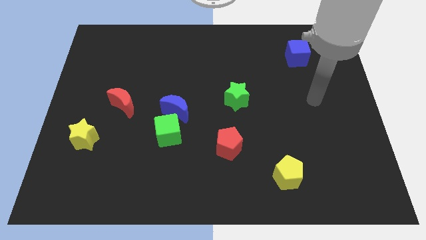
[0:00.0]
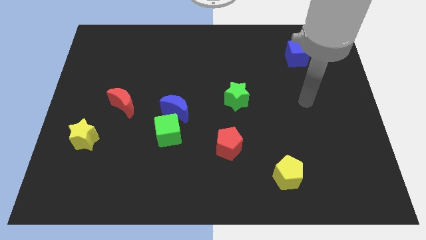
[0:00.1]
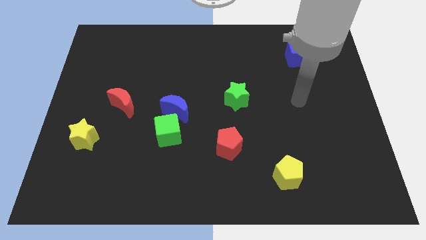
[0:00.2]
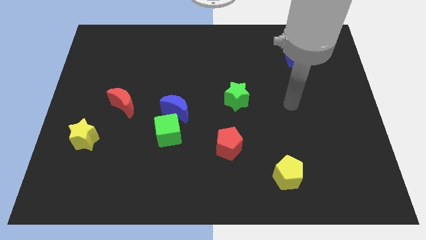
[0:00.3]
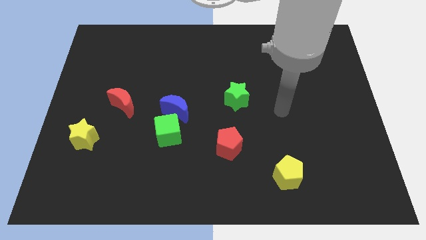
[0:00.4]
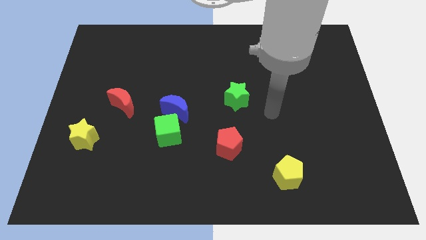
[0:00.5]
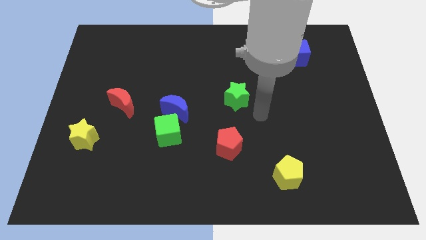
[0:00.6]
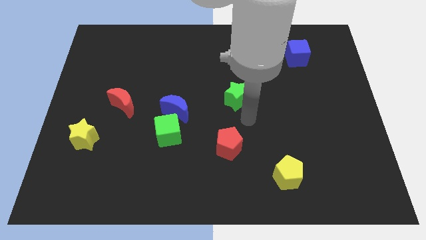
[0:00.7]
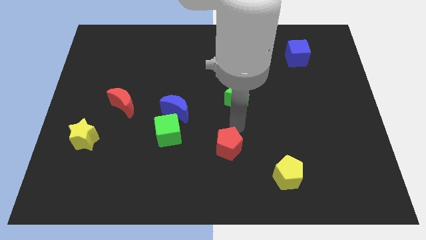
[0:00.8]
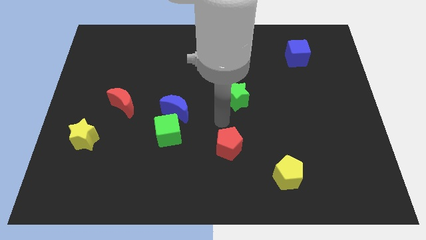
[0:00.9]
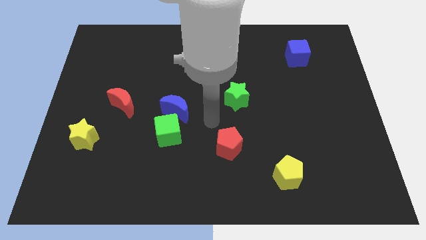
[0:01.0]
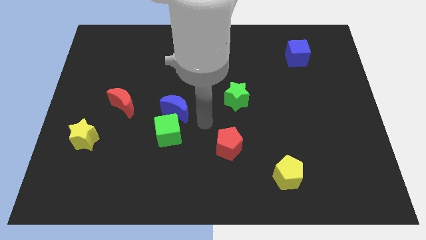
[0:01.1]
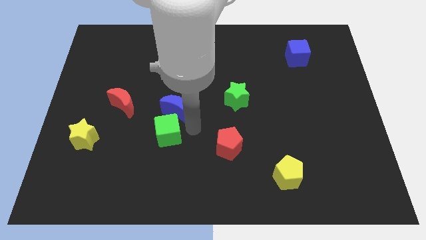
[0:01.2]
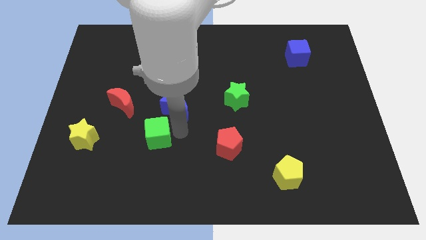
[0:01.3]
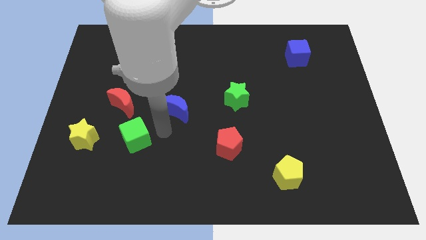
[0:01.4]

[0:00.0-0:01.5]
move the blue moon away from the green cube

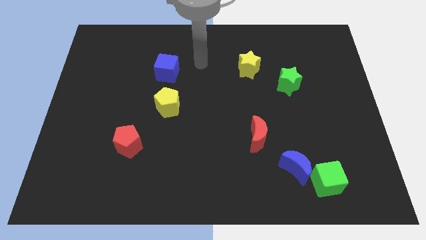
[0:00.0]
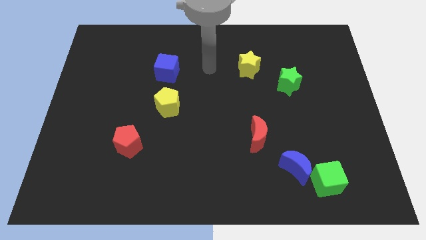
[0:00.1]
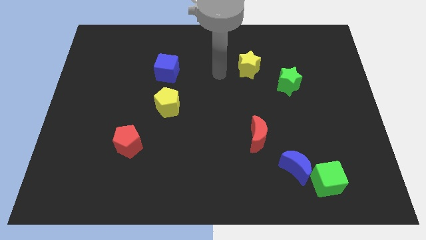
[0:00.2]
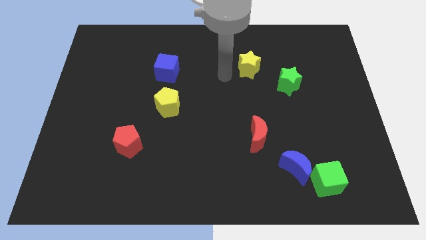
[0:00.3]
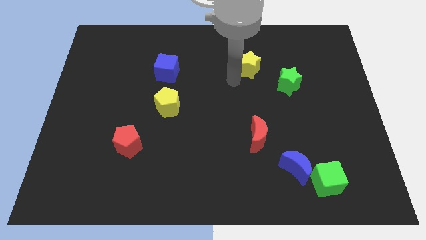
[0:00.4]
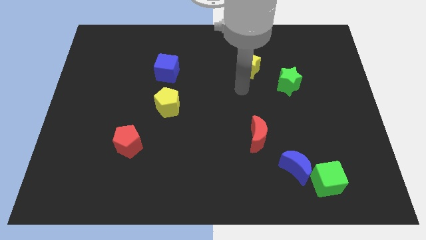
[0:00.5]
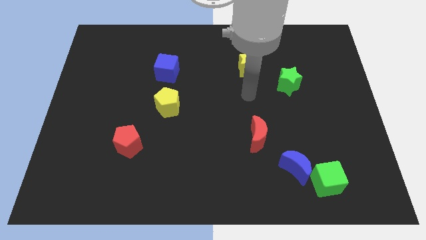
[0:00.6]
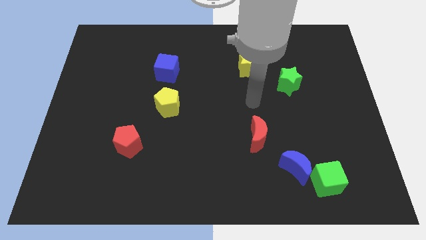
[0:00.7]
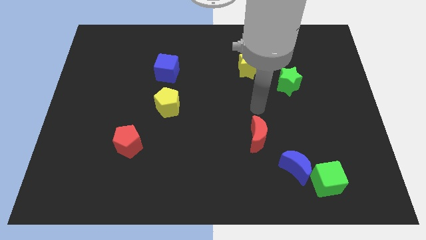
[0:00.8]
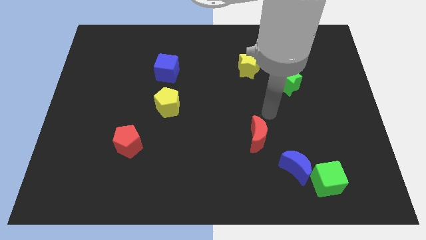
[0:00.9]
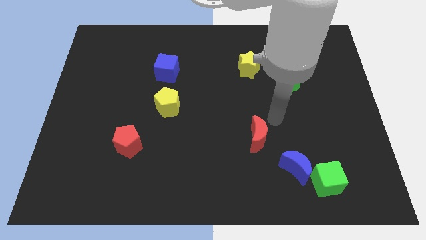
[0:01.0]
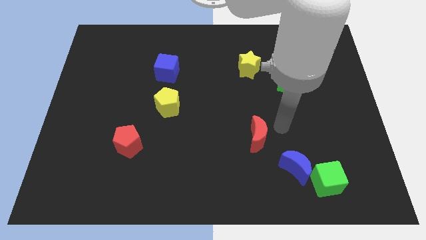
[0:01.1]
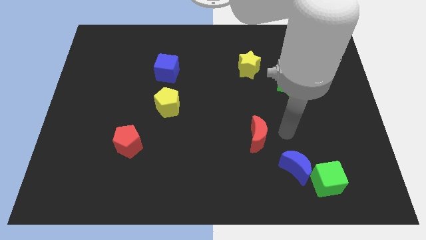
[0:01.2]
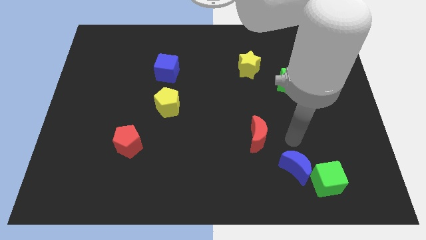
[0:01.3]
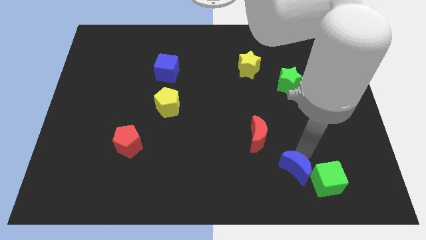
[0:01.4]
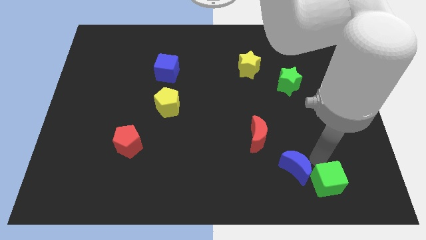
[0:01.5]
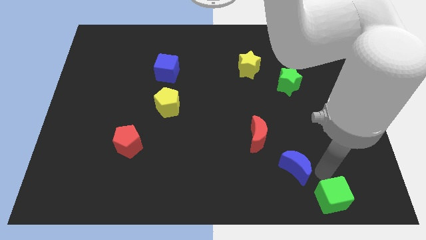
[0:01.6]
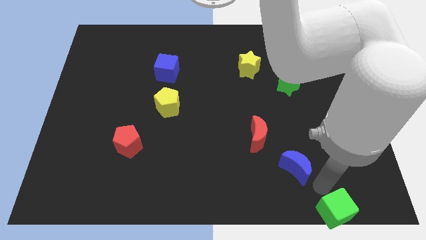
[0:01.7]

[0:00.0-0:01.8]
pull the blue moon apart from the green cube

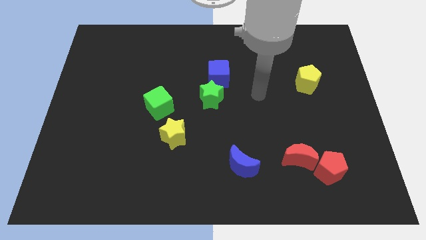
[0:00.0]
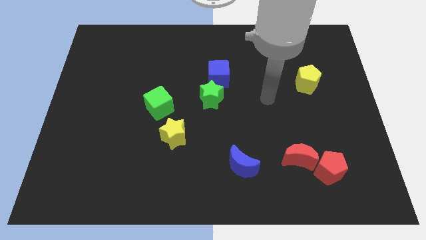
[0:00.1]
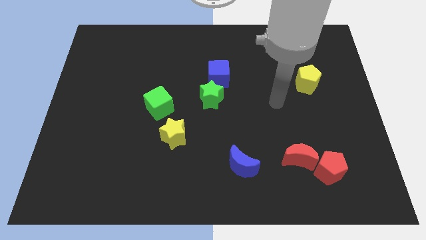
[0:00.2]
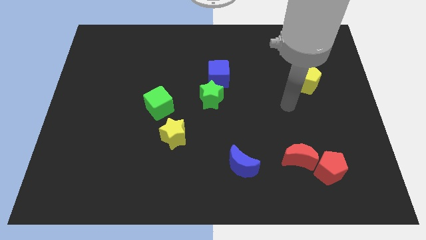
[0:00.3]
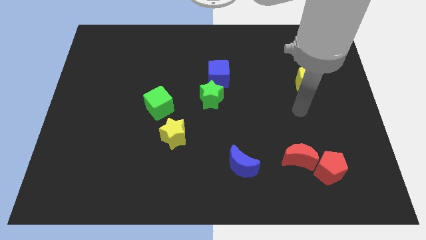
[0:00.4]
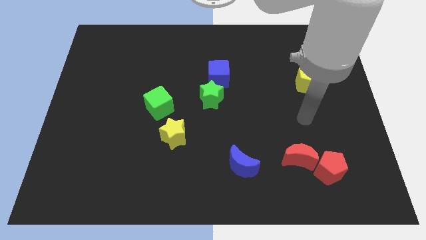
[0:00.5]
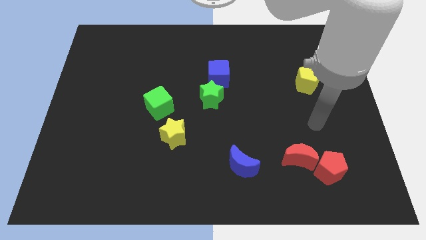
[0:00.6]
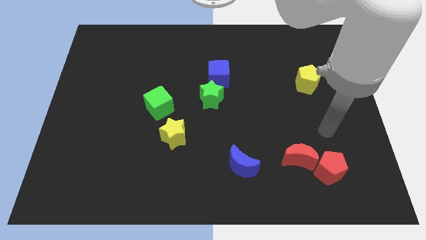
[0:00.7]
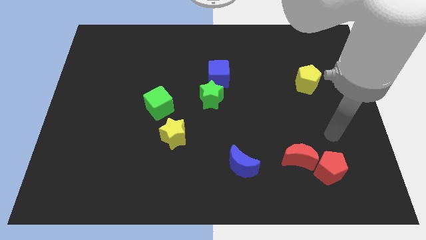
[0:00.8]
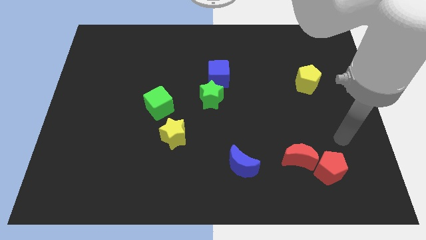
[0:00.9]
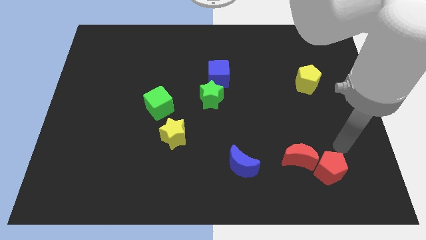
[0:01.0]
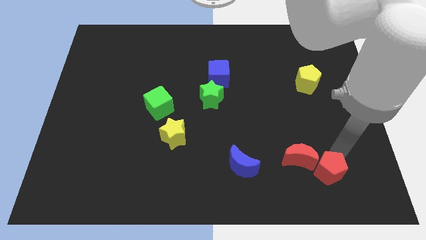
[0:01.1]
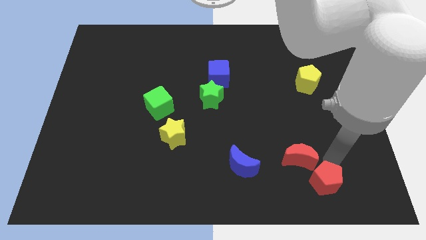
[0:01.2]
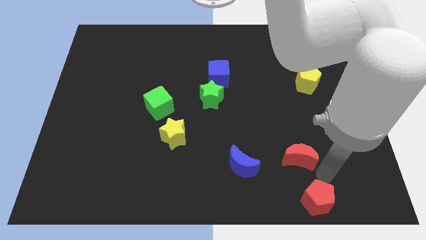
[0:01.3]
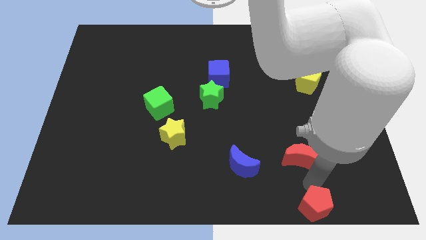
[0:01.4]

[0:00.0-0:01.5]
move the red moon away from the red pentagon

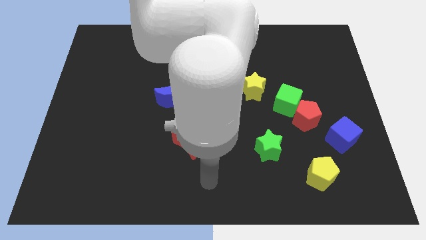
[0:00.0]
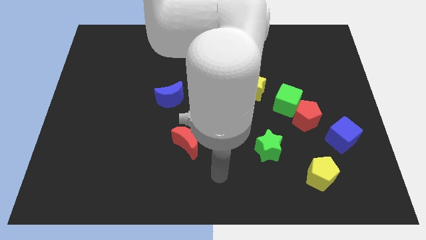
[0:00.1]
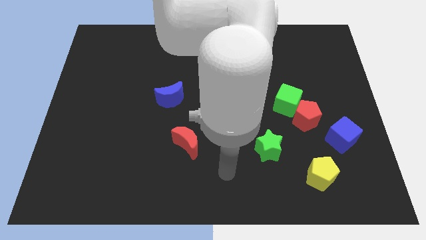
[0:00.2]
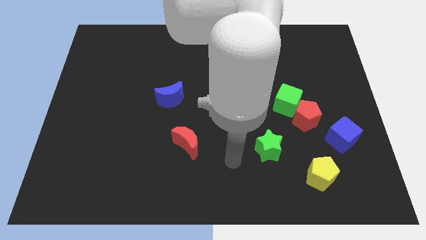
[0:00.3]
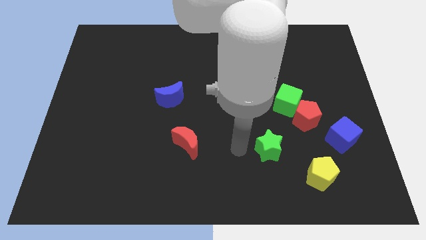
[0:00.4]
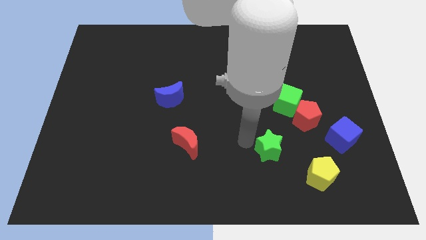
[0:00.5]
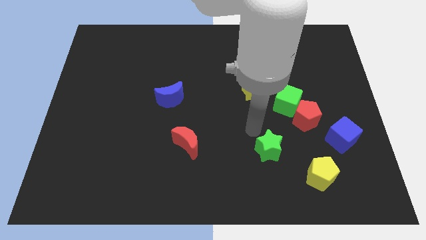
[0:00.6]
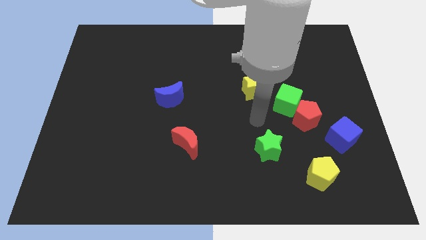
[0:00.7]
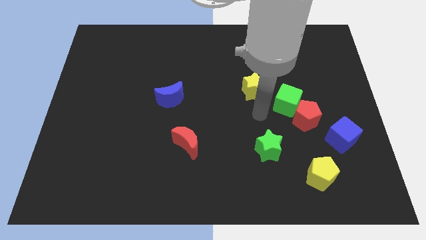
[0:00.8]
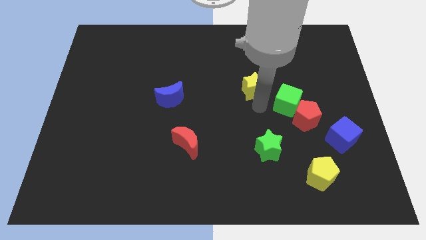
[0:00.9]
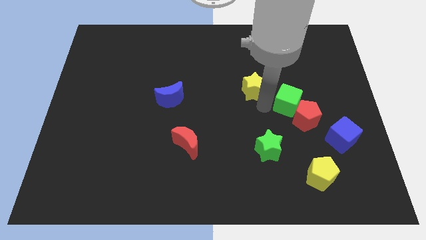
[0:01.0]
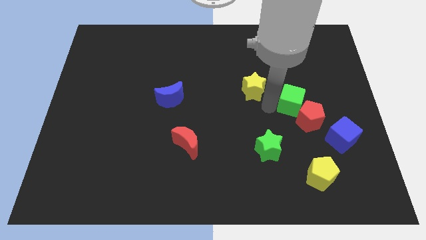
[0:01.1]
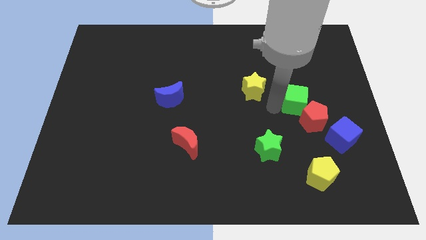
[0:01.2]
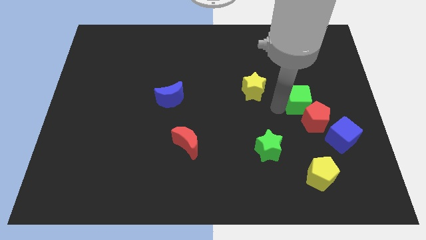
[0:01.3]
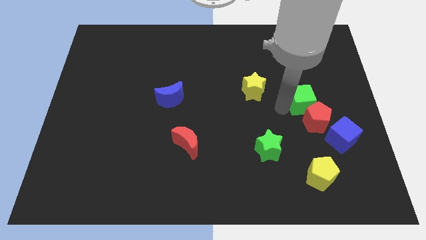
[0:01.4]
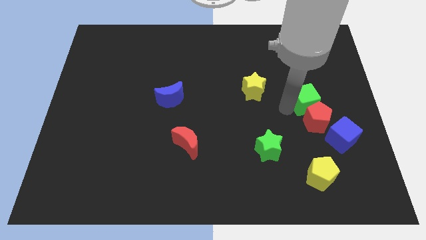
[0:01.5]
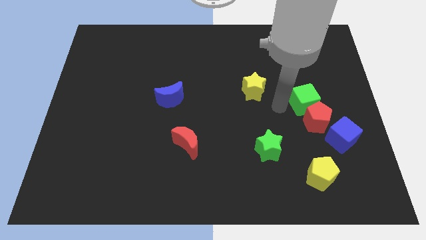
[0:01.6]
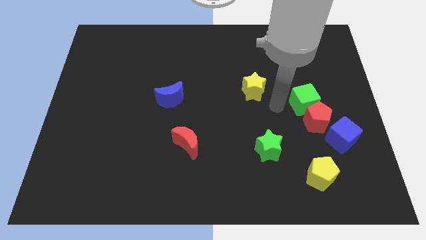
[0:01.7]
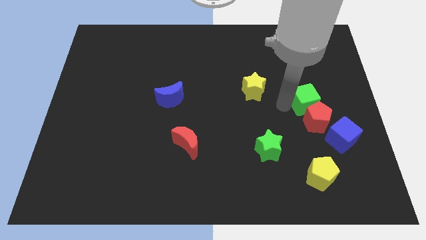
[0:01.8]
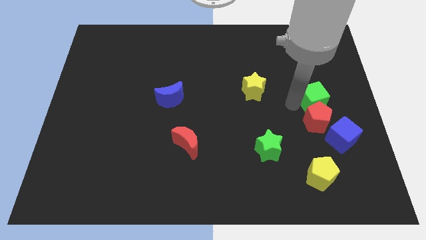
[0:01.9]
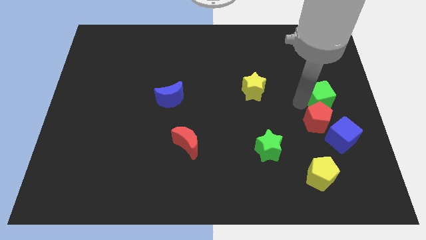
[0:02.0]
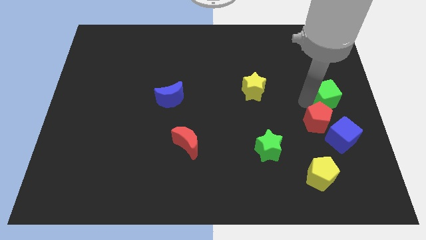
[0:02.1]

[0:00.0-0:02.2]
separate the green cube from the red pentagon and yellow star

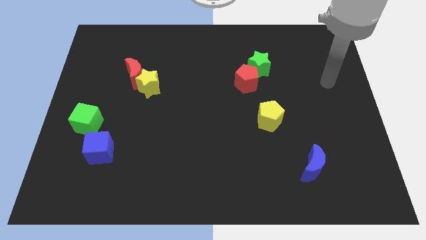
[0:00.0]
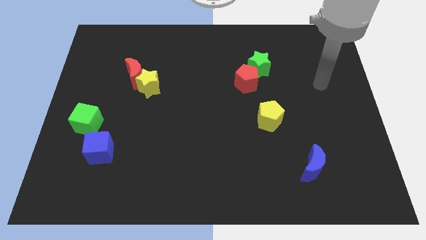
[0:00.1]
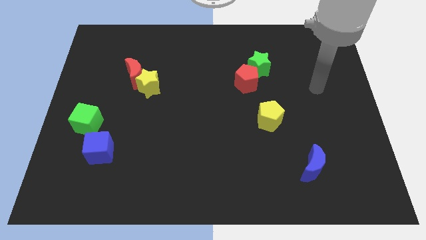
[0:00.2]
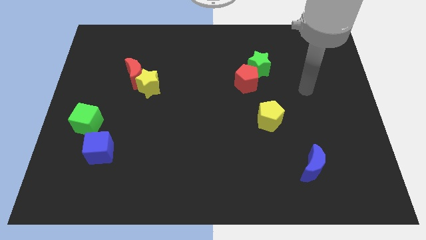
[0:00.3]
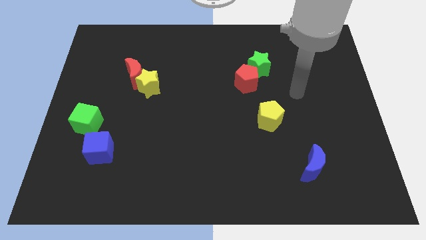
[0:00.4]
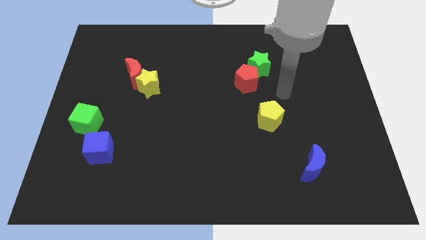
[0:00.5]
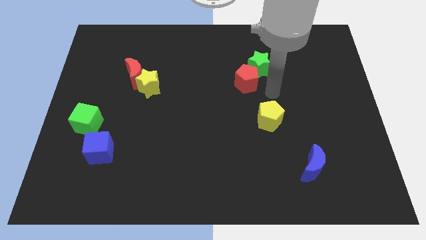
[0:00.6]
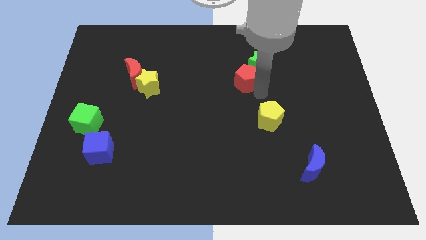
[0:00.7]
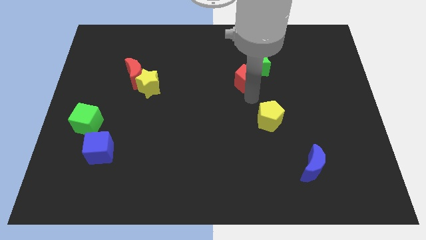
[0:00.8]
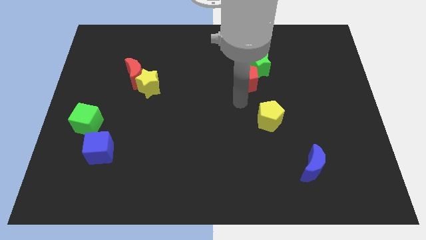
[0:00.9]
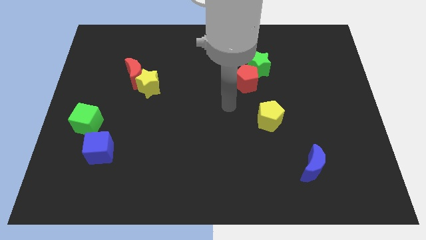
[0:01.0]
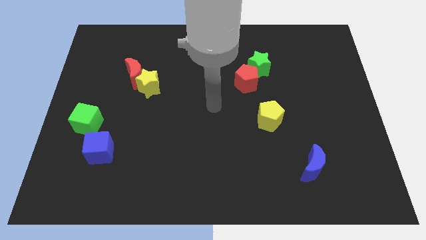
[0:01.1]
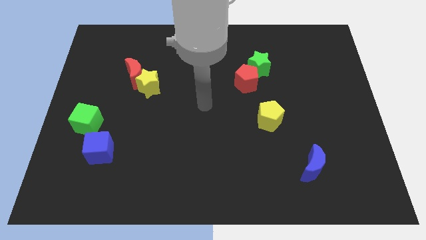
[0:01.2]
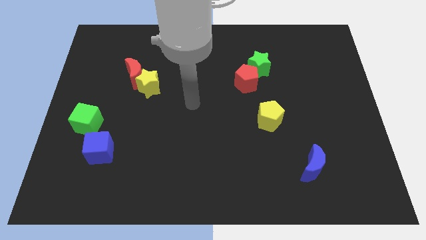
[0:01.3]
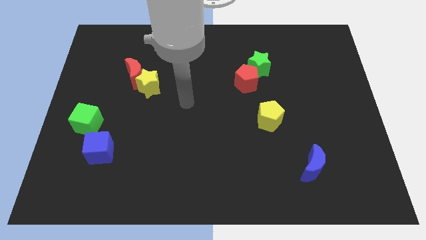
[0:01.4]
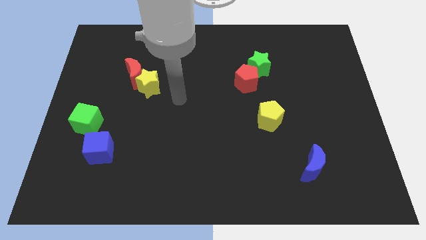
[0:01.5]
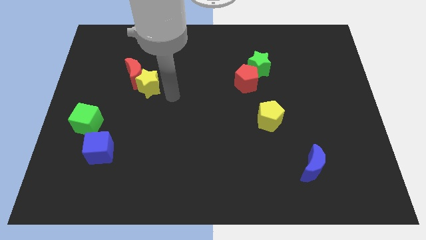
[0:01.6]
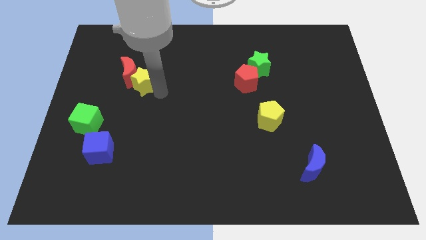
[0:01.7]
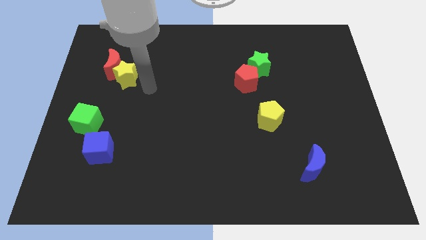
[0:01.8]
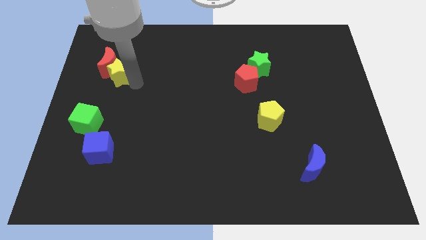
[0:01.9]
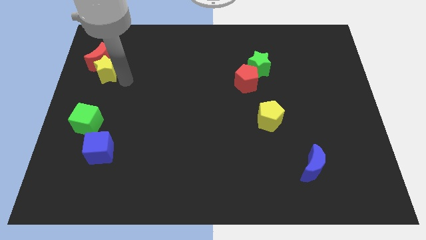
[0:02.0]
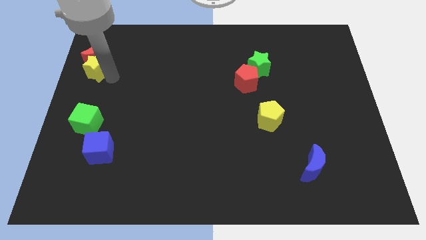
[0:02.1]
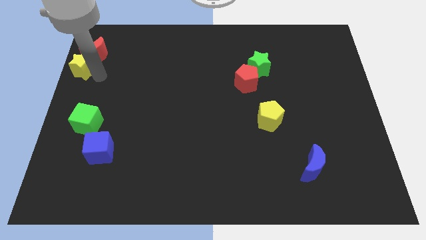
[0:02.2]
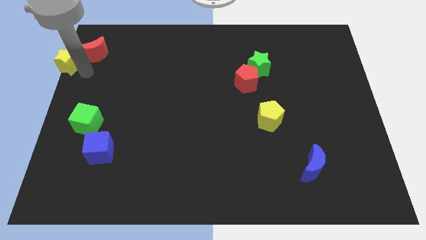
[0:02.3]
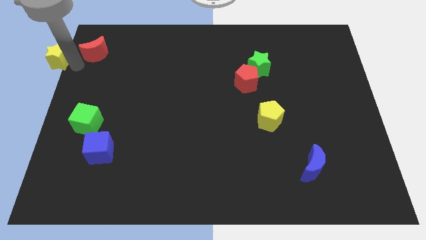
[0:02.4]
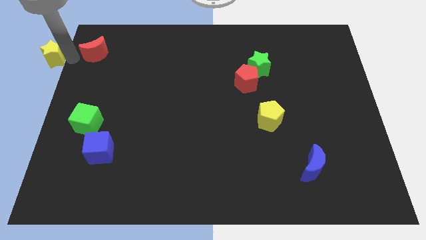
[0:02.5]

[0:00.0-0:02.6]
pull the red moon apart from the yellow star
